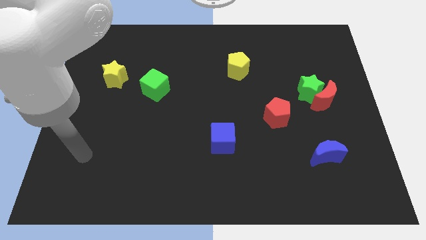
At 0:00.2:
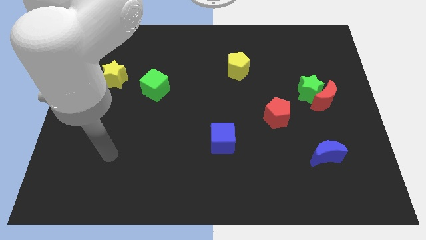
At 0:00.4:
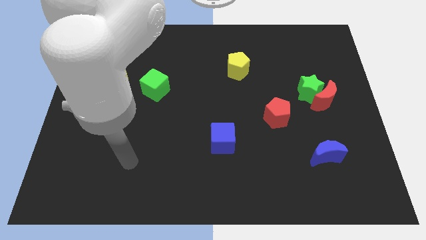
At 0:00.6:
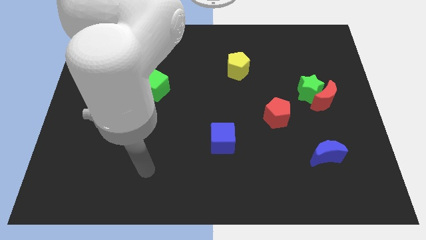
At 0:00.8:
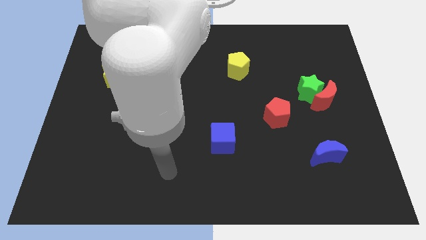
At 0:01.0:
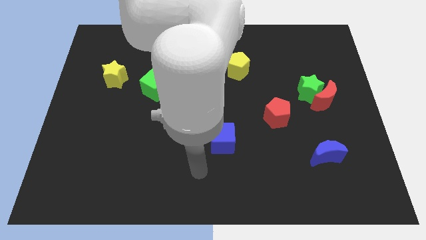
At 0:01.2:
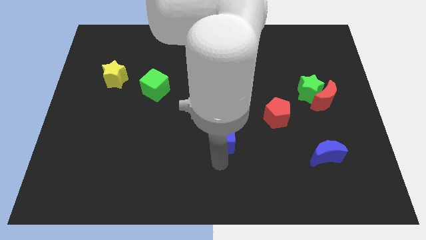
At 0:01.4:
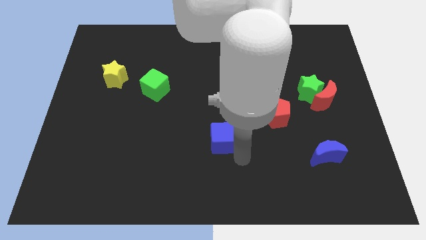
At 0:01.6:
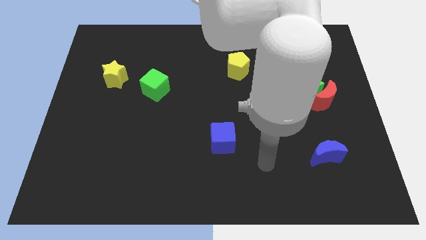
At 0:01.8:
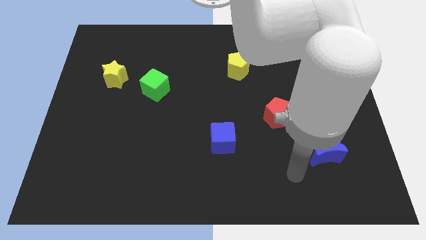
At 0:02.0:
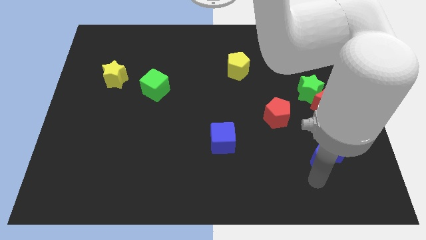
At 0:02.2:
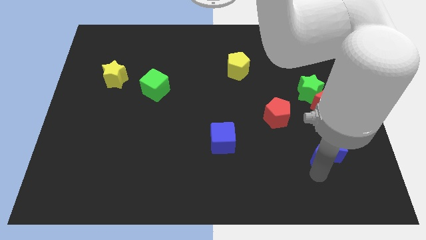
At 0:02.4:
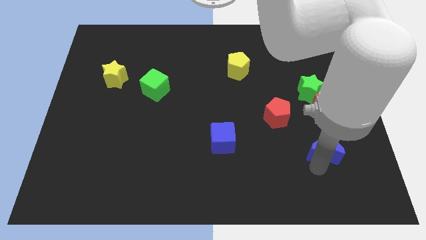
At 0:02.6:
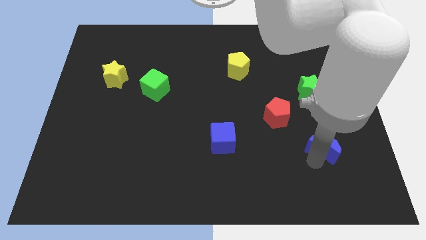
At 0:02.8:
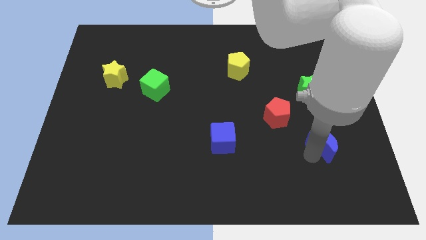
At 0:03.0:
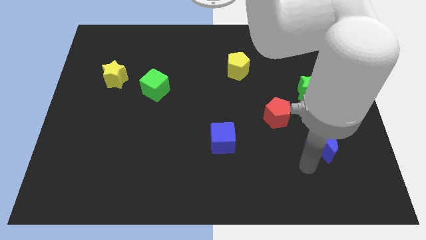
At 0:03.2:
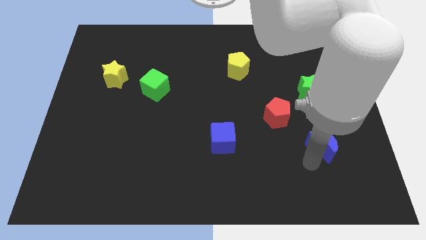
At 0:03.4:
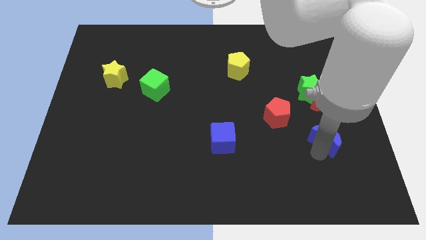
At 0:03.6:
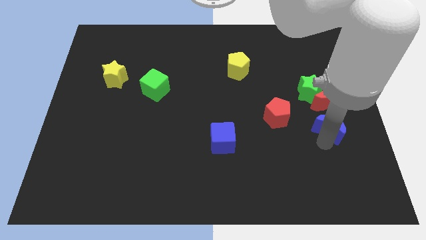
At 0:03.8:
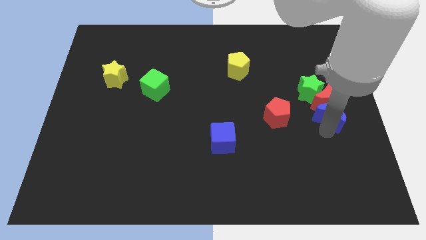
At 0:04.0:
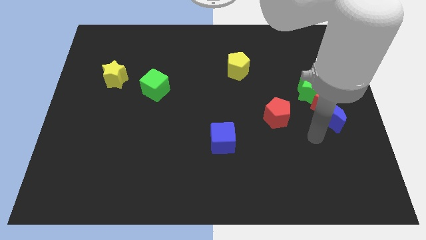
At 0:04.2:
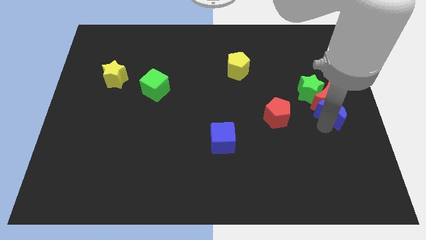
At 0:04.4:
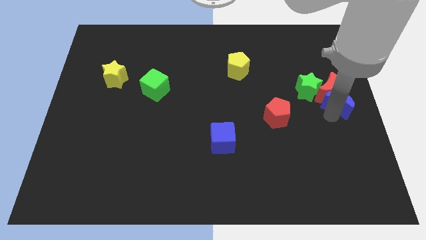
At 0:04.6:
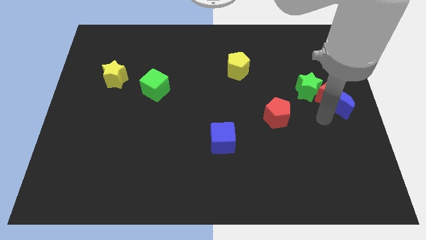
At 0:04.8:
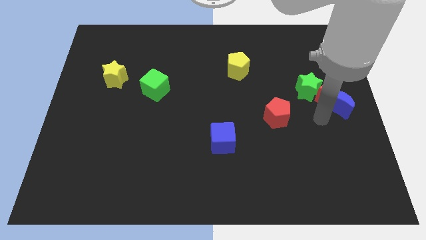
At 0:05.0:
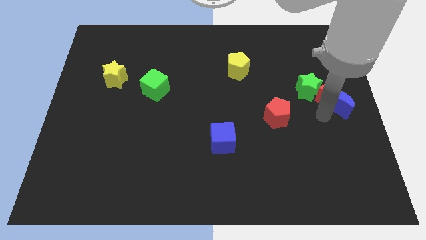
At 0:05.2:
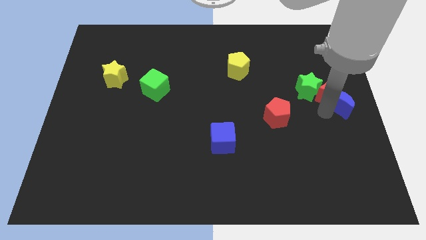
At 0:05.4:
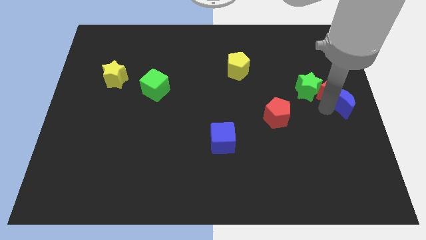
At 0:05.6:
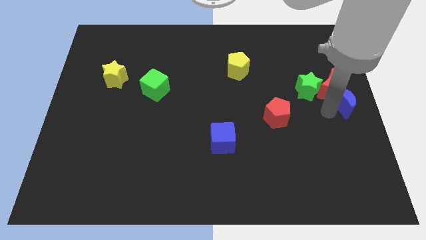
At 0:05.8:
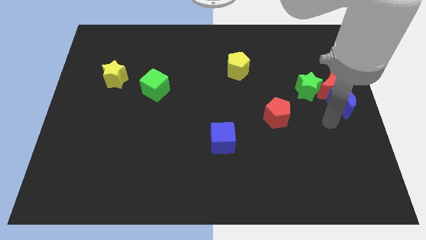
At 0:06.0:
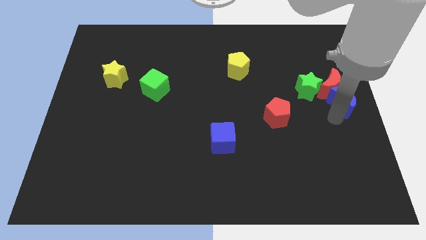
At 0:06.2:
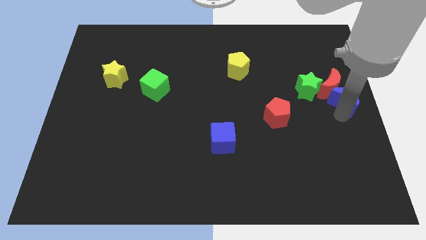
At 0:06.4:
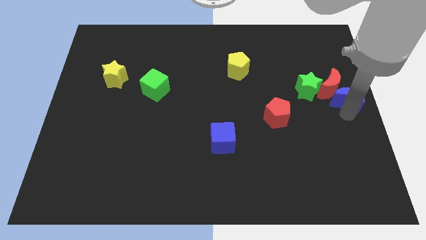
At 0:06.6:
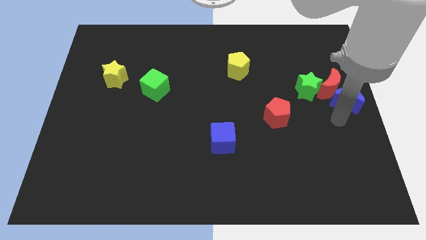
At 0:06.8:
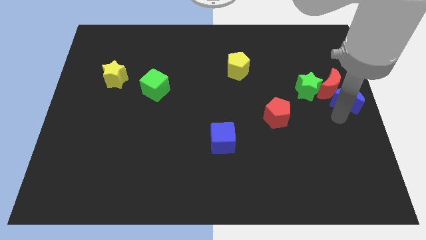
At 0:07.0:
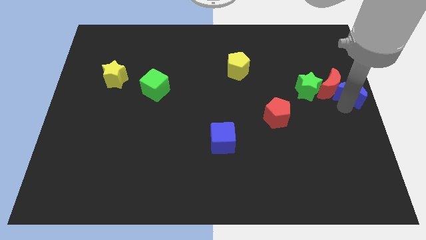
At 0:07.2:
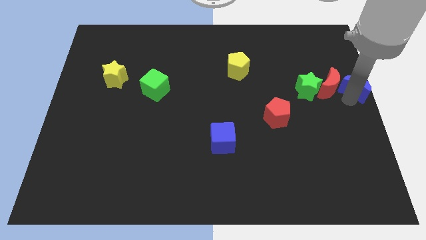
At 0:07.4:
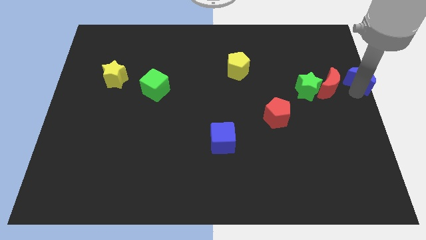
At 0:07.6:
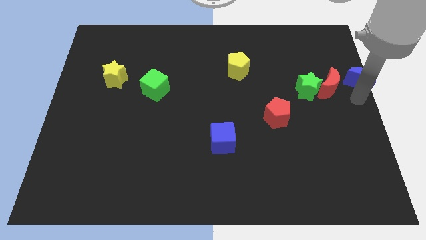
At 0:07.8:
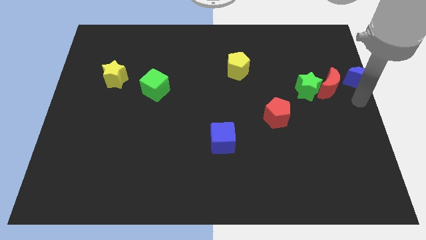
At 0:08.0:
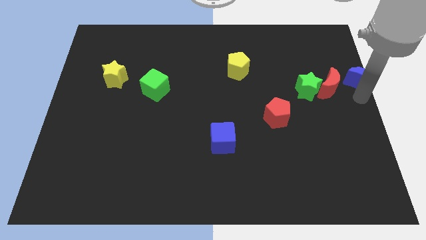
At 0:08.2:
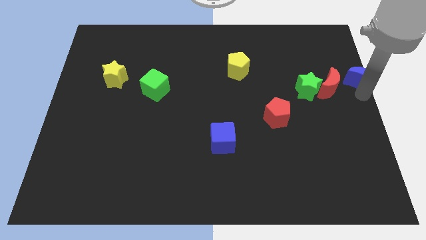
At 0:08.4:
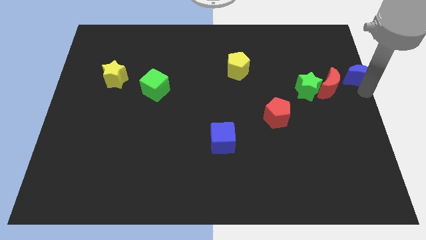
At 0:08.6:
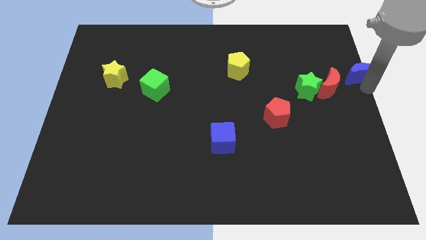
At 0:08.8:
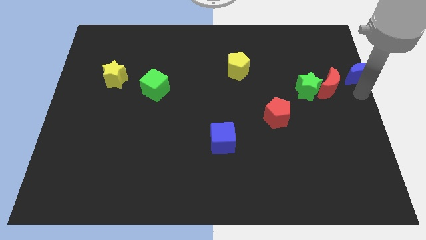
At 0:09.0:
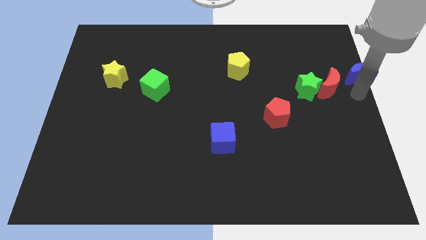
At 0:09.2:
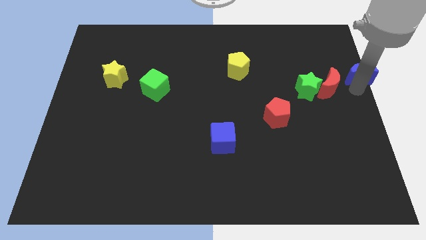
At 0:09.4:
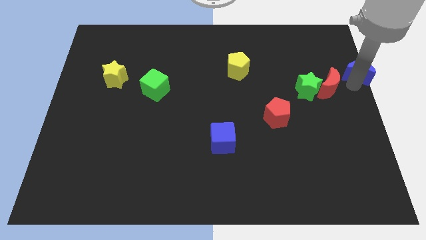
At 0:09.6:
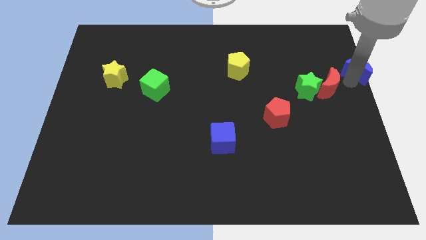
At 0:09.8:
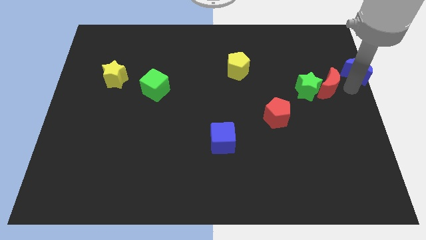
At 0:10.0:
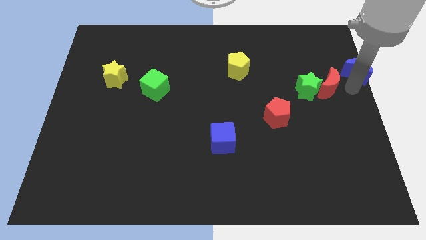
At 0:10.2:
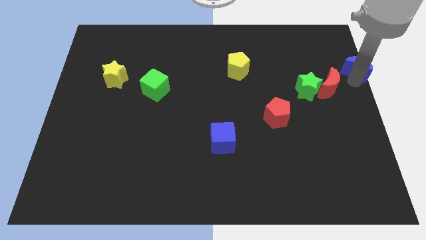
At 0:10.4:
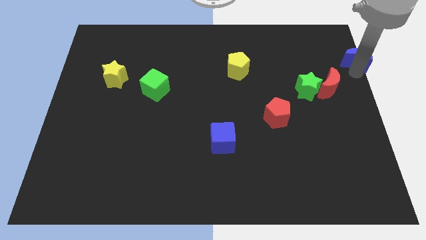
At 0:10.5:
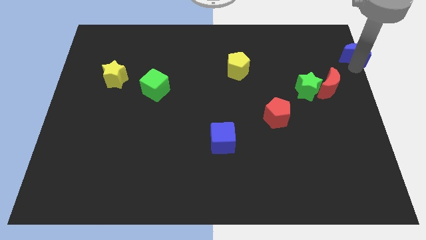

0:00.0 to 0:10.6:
slide the blue moon to the top right corner

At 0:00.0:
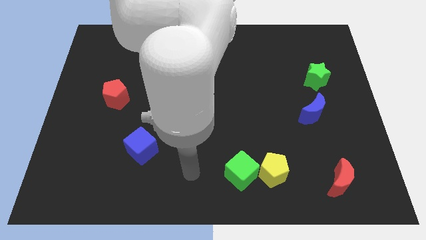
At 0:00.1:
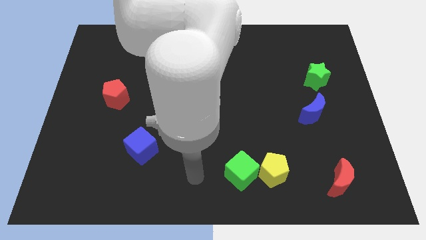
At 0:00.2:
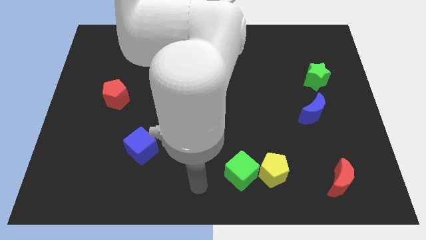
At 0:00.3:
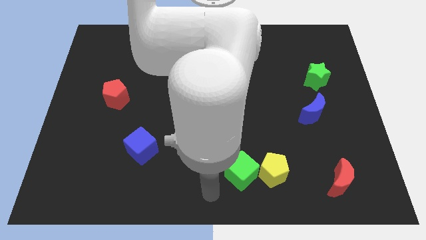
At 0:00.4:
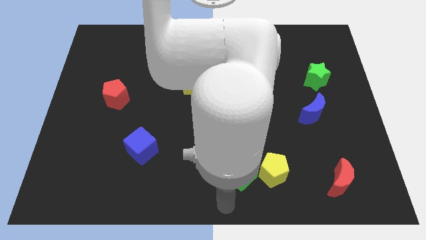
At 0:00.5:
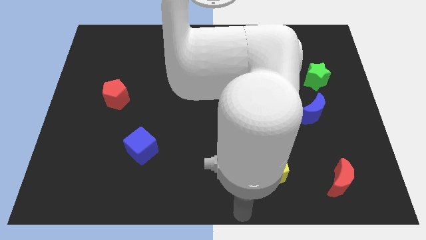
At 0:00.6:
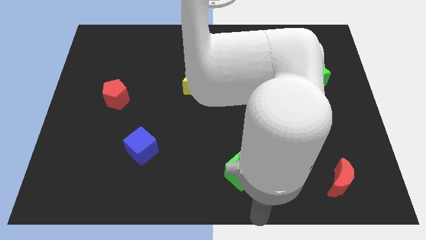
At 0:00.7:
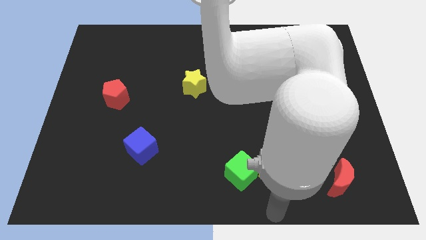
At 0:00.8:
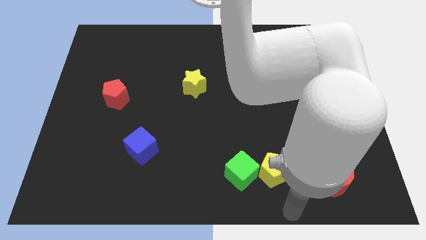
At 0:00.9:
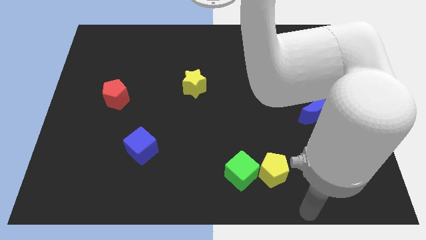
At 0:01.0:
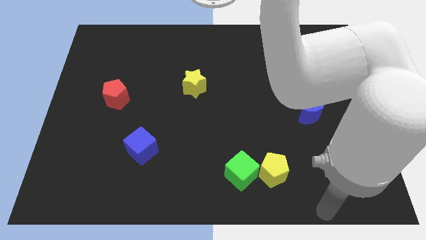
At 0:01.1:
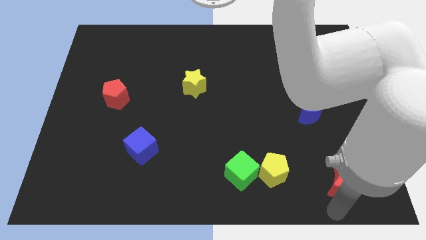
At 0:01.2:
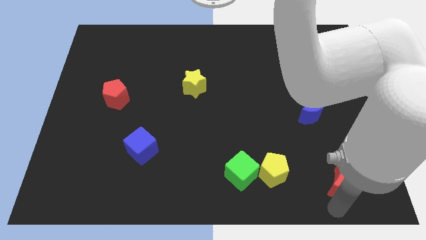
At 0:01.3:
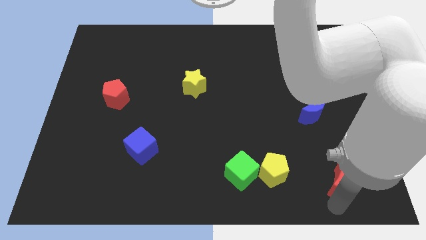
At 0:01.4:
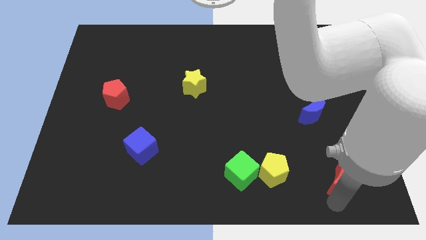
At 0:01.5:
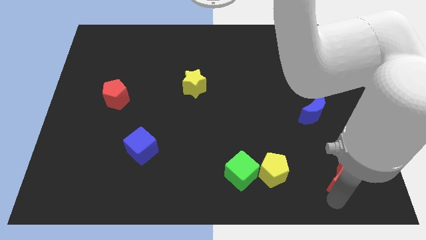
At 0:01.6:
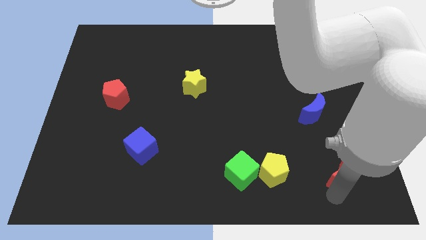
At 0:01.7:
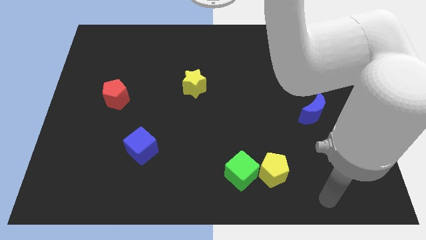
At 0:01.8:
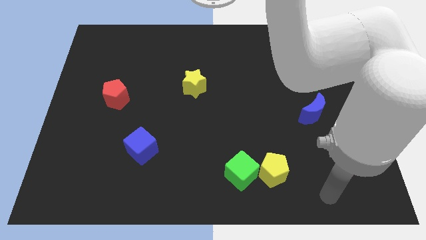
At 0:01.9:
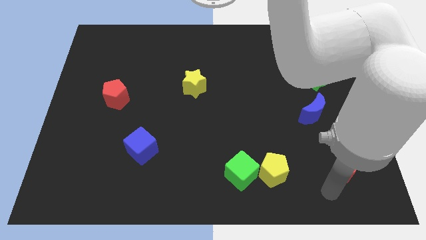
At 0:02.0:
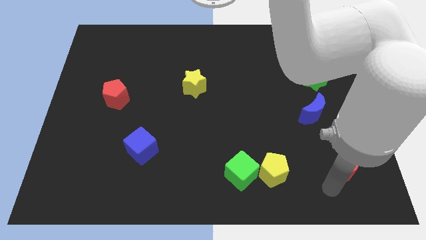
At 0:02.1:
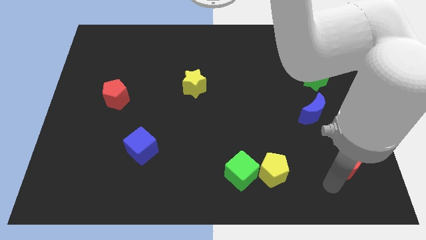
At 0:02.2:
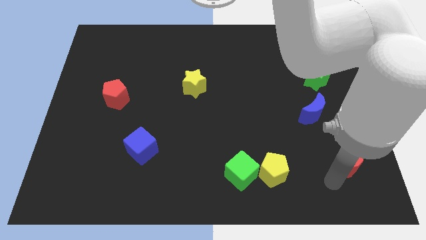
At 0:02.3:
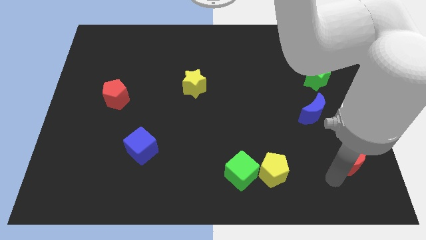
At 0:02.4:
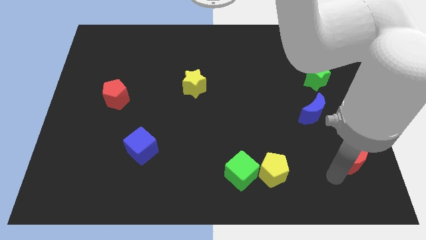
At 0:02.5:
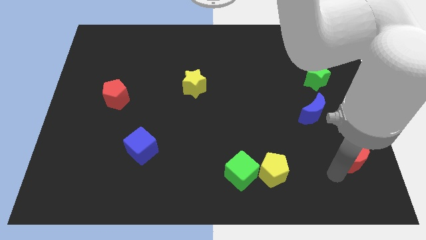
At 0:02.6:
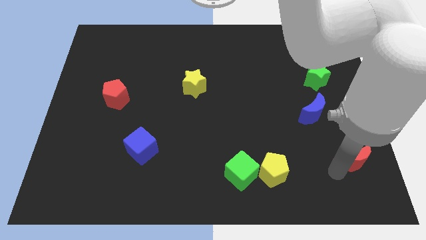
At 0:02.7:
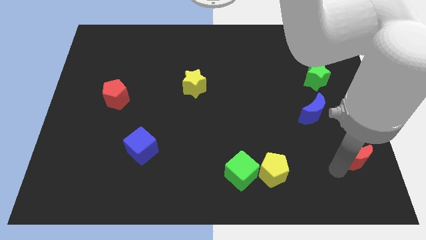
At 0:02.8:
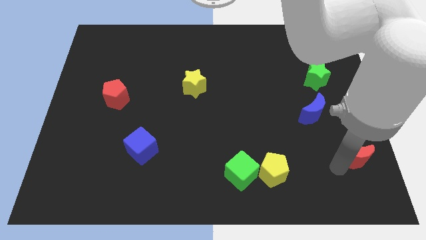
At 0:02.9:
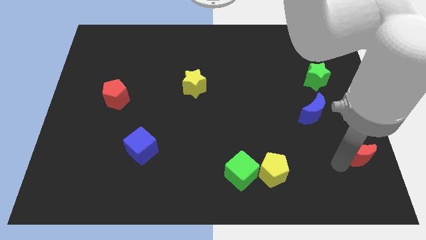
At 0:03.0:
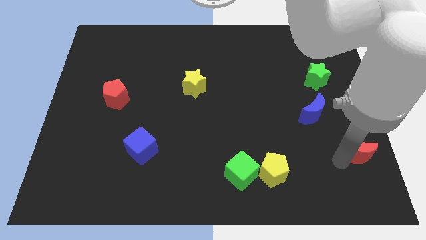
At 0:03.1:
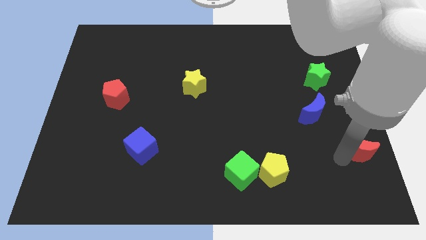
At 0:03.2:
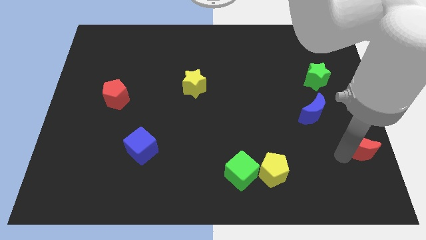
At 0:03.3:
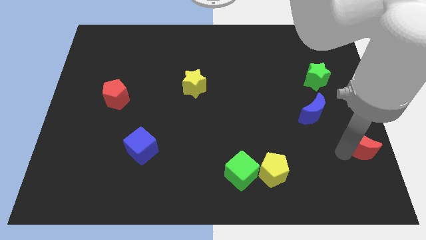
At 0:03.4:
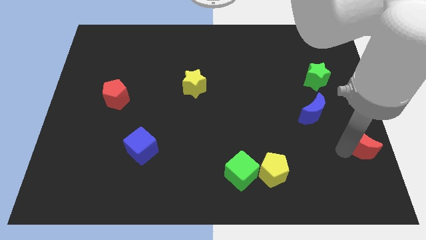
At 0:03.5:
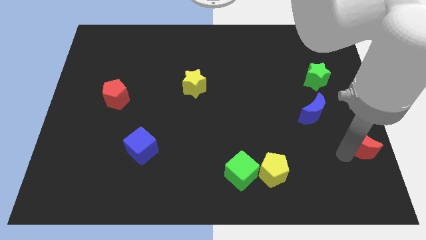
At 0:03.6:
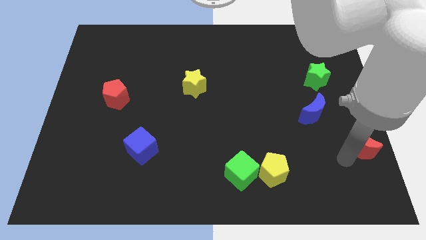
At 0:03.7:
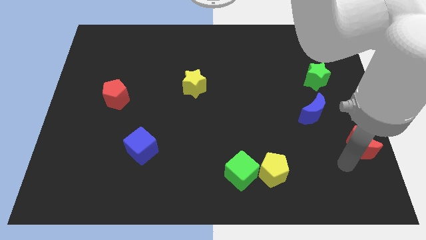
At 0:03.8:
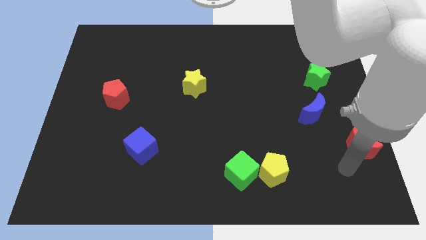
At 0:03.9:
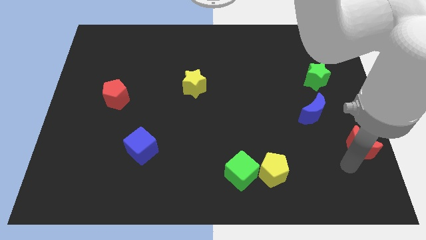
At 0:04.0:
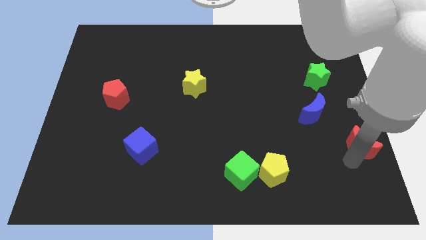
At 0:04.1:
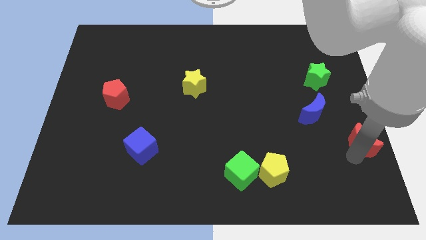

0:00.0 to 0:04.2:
move the red moon to the center right
